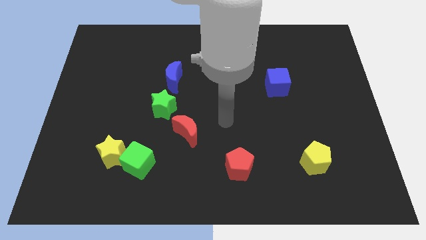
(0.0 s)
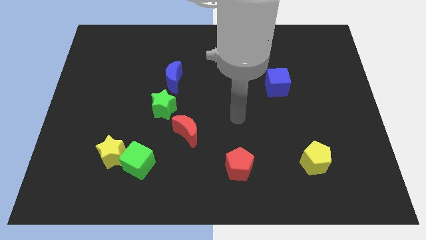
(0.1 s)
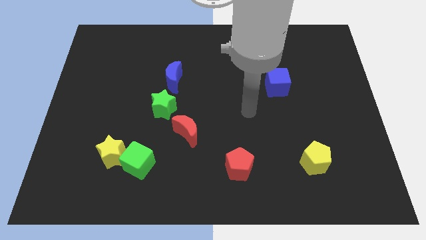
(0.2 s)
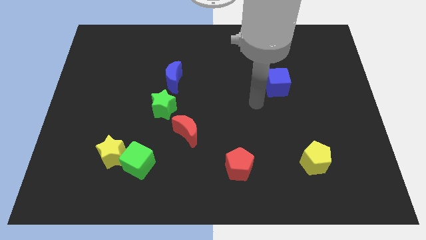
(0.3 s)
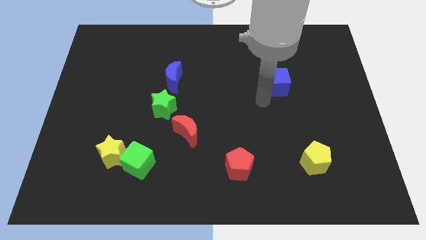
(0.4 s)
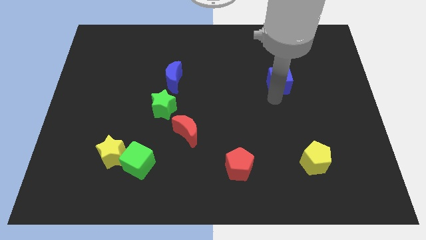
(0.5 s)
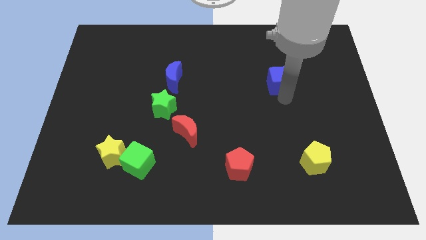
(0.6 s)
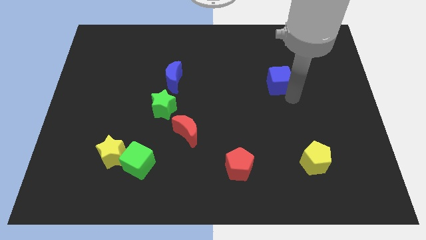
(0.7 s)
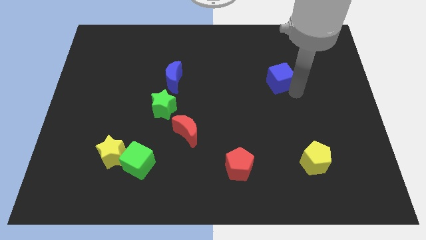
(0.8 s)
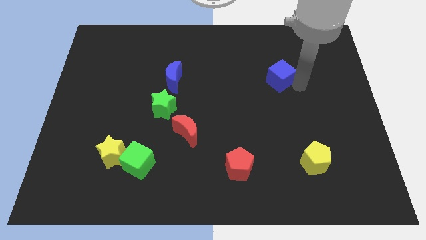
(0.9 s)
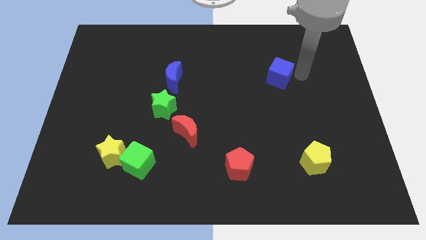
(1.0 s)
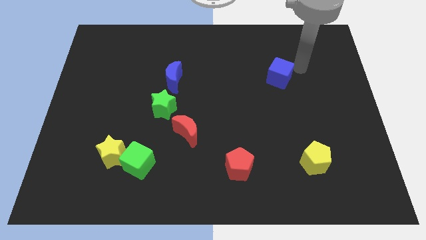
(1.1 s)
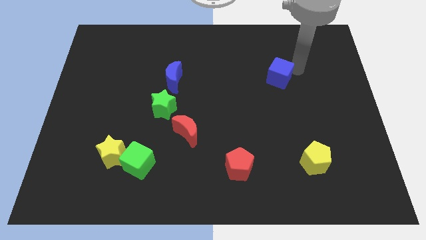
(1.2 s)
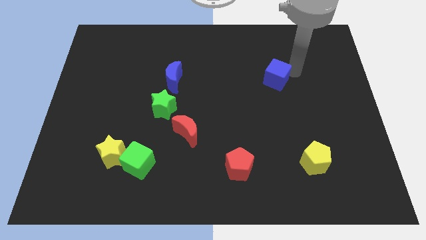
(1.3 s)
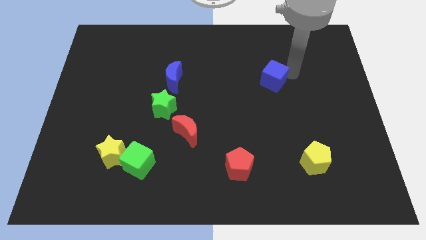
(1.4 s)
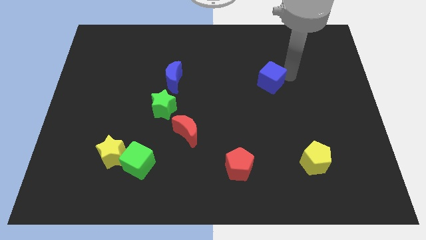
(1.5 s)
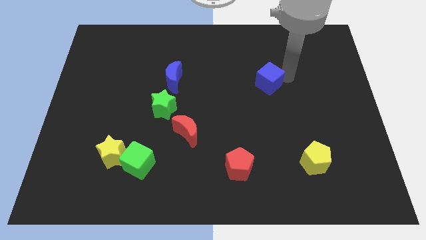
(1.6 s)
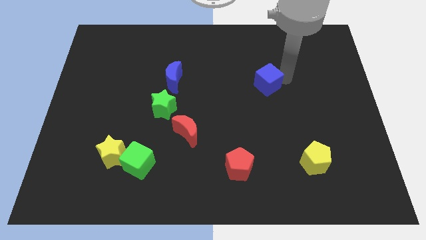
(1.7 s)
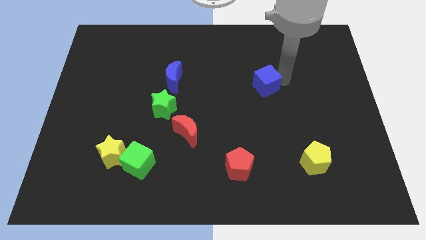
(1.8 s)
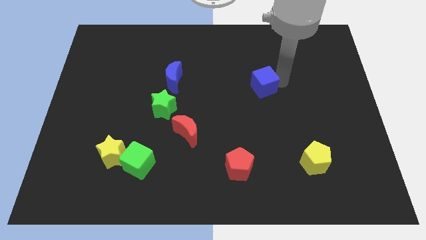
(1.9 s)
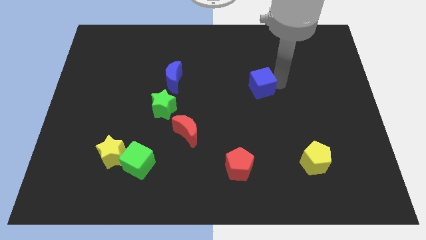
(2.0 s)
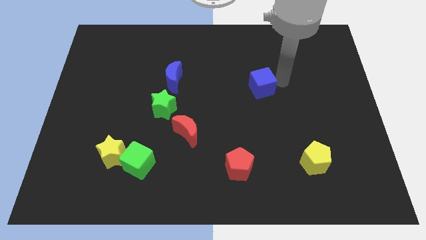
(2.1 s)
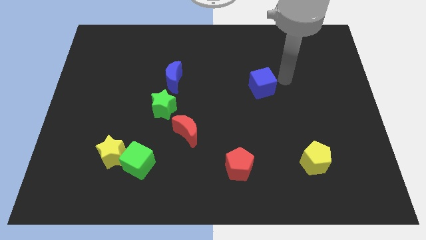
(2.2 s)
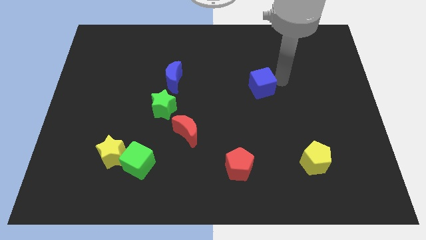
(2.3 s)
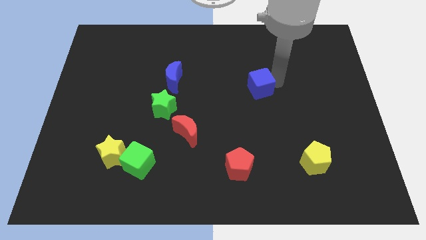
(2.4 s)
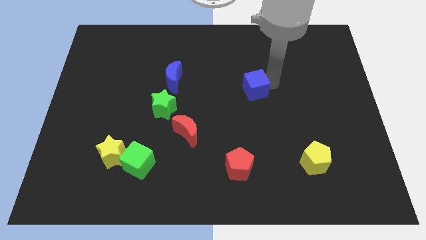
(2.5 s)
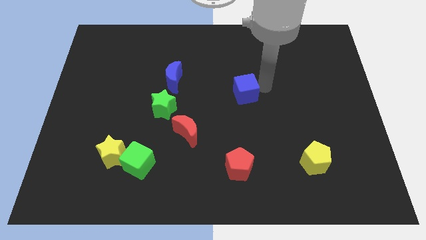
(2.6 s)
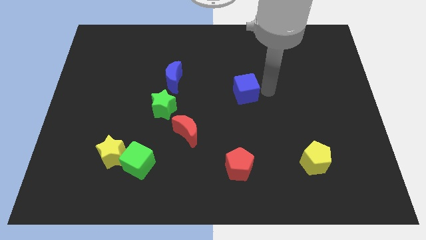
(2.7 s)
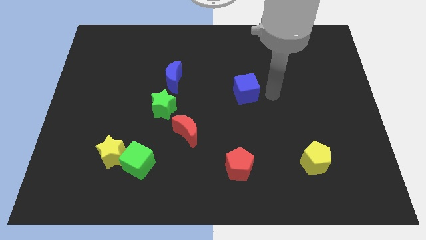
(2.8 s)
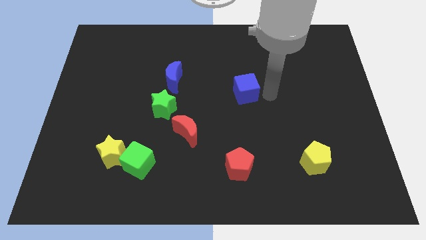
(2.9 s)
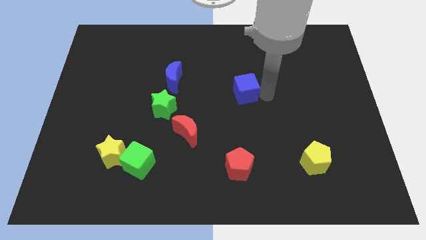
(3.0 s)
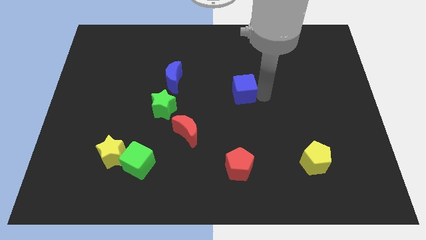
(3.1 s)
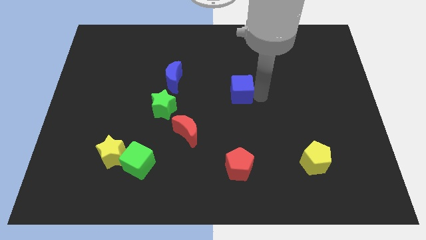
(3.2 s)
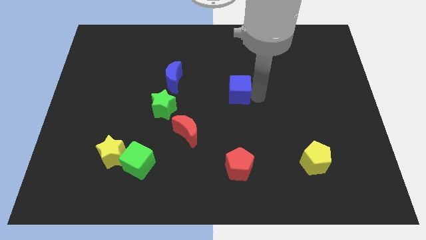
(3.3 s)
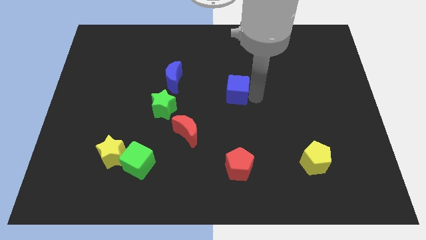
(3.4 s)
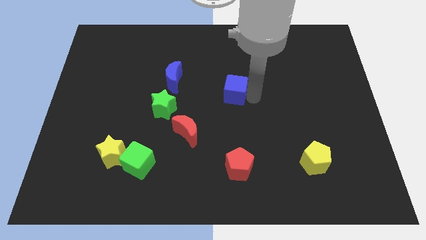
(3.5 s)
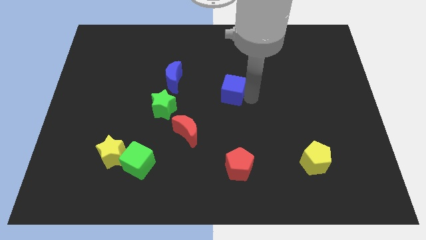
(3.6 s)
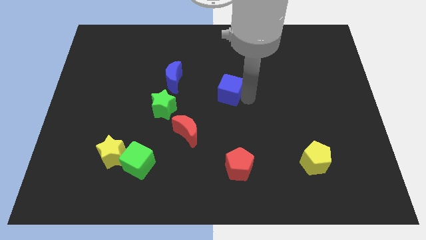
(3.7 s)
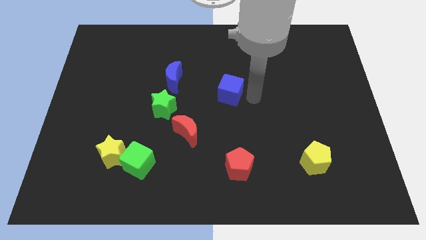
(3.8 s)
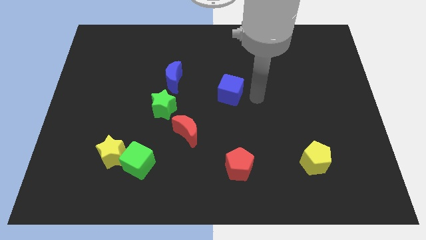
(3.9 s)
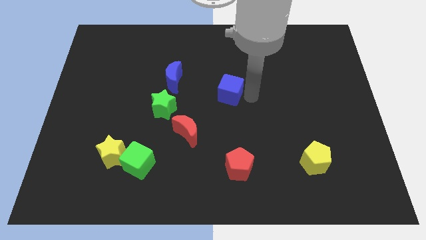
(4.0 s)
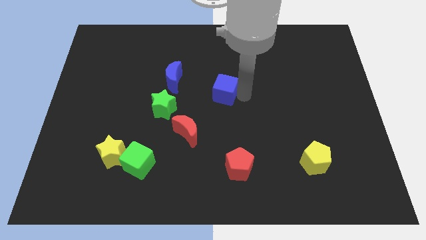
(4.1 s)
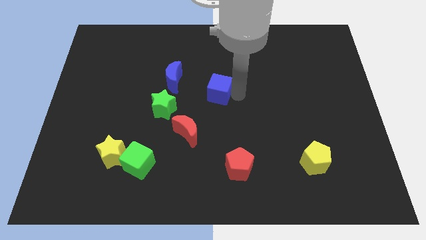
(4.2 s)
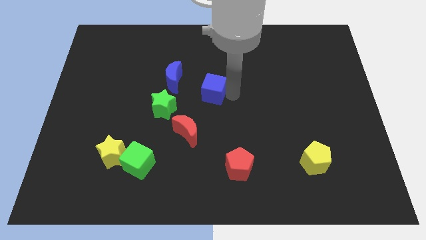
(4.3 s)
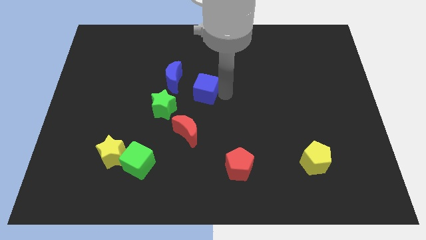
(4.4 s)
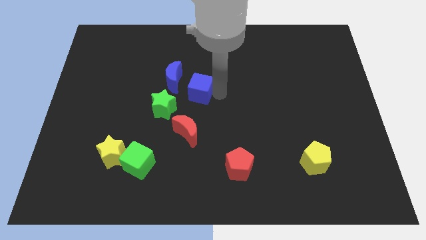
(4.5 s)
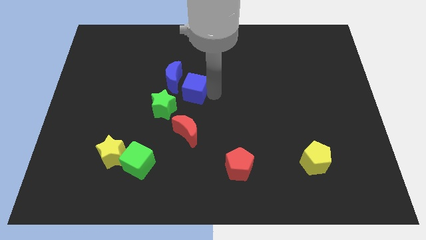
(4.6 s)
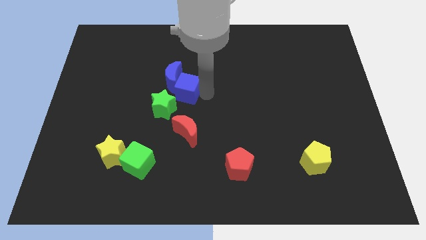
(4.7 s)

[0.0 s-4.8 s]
move the blue cube towards the blue moon

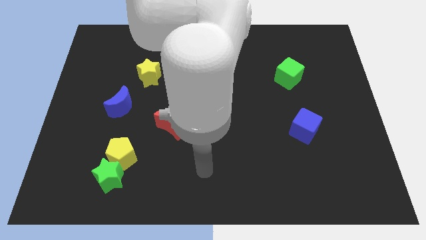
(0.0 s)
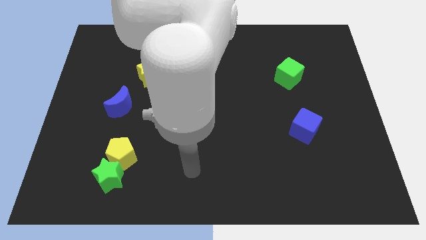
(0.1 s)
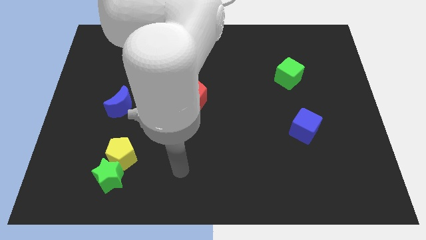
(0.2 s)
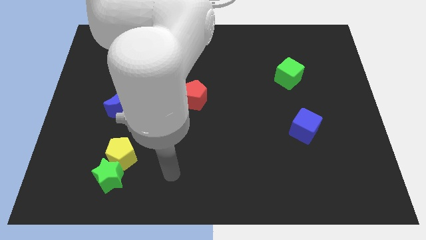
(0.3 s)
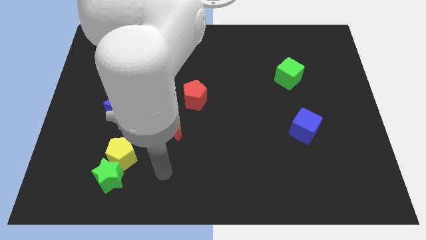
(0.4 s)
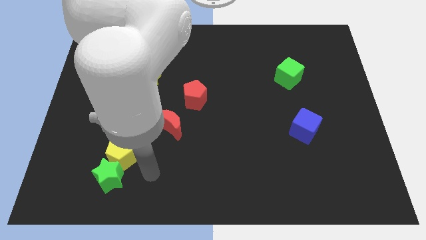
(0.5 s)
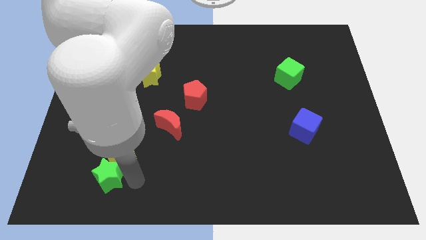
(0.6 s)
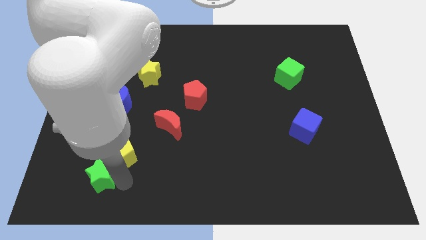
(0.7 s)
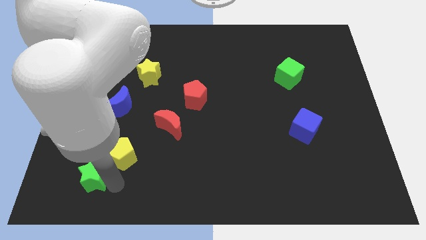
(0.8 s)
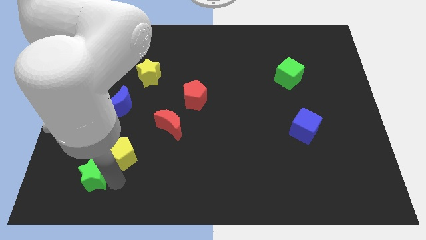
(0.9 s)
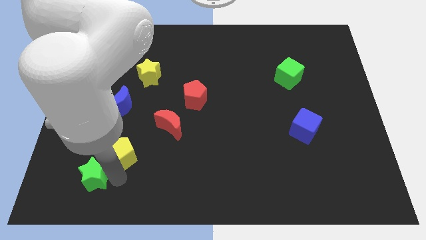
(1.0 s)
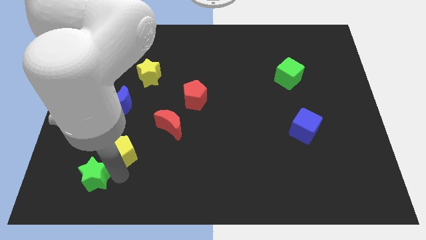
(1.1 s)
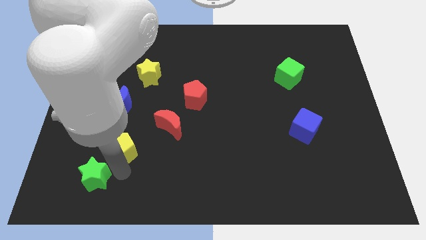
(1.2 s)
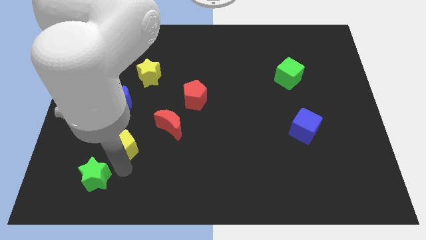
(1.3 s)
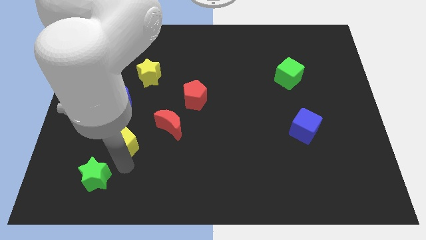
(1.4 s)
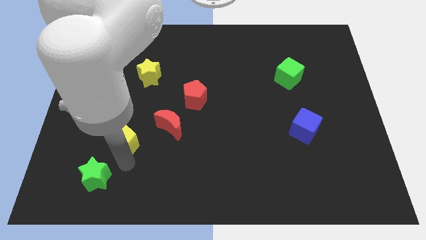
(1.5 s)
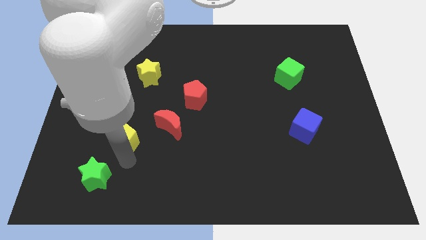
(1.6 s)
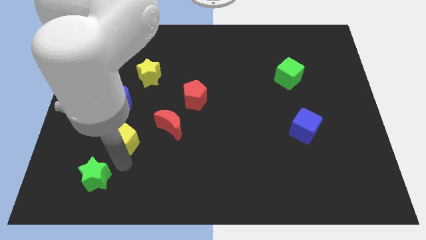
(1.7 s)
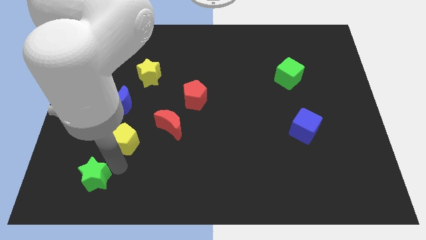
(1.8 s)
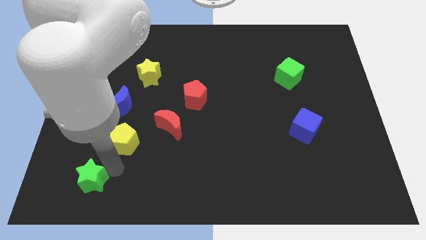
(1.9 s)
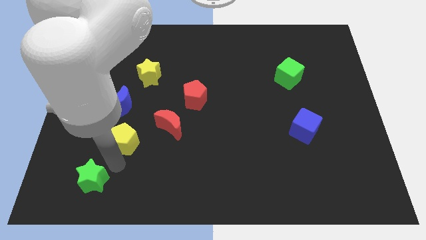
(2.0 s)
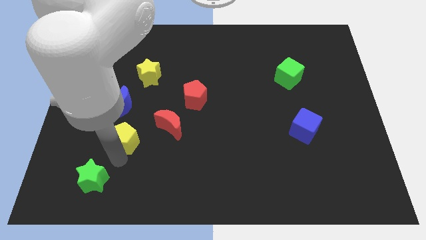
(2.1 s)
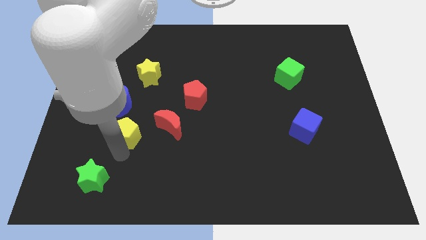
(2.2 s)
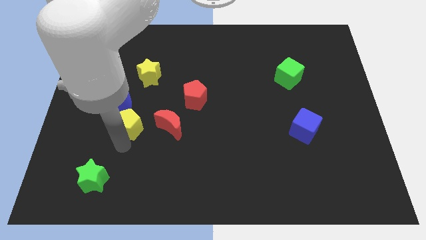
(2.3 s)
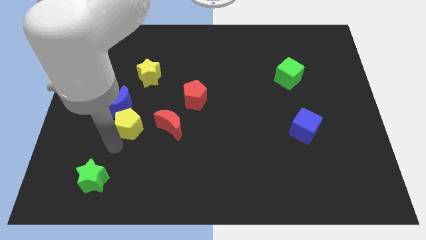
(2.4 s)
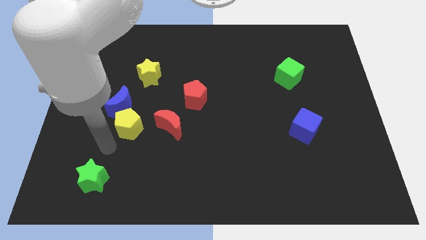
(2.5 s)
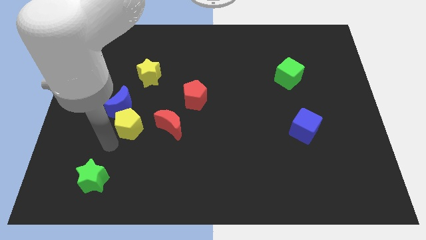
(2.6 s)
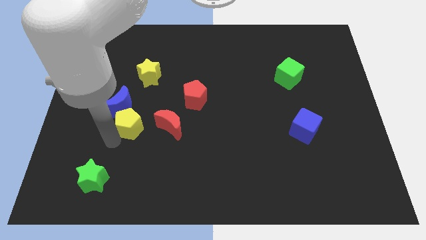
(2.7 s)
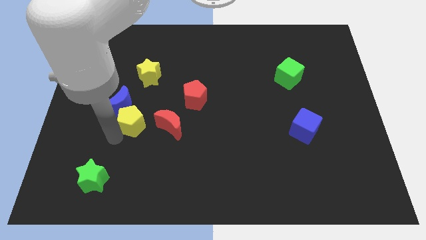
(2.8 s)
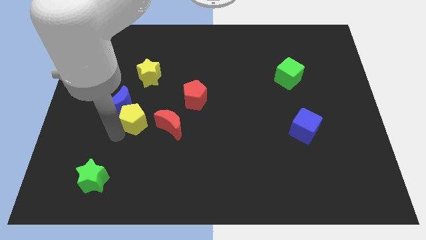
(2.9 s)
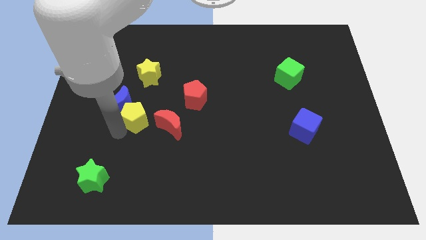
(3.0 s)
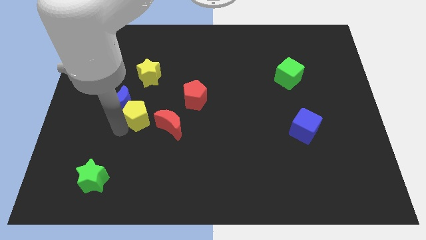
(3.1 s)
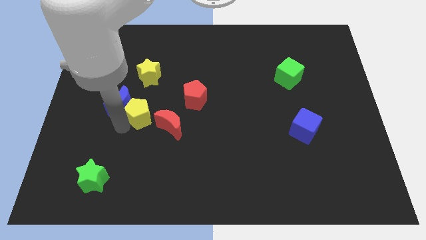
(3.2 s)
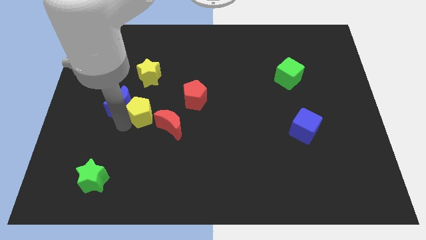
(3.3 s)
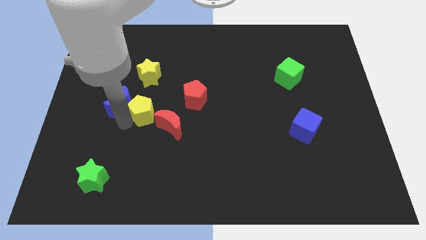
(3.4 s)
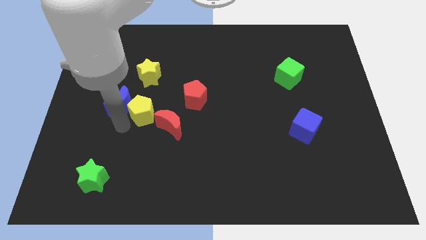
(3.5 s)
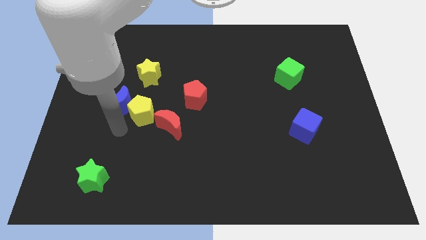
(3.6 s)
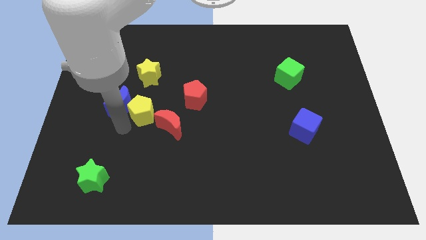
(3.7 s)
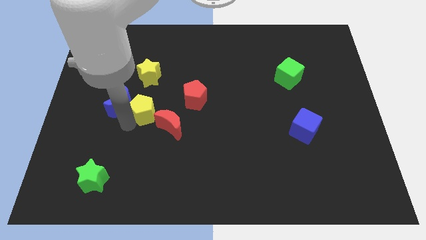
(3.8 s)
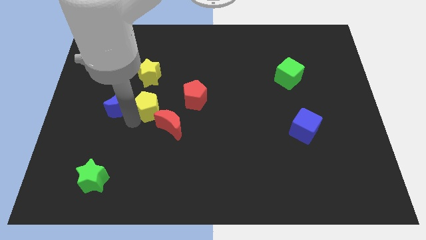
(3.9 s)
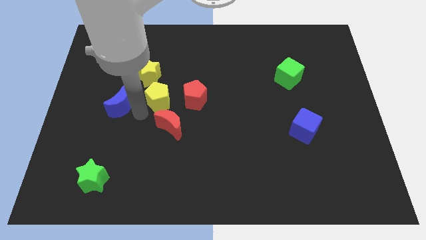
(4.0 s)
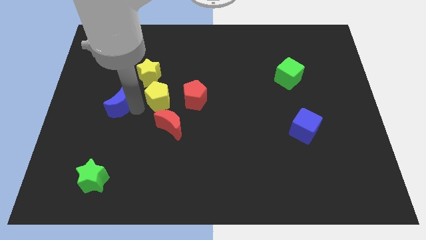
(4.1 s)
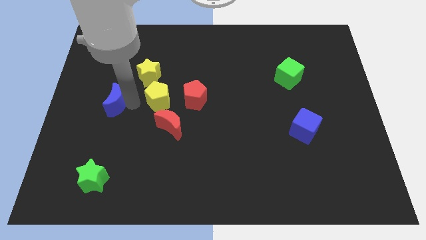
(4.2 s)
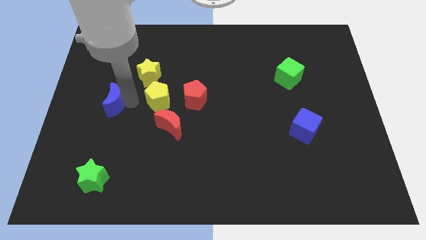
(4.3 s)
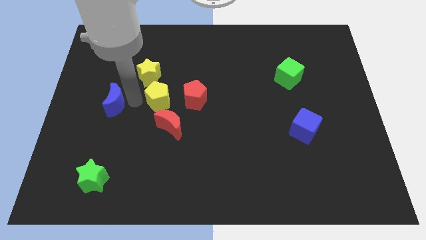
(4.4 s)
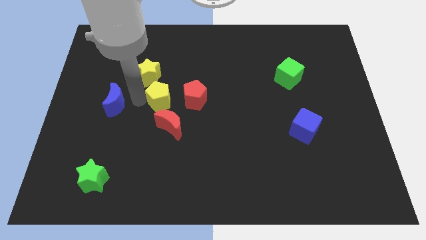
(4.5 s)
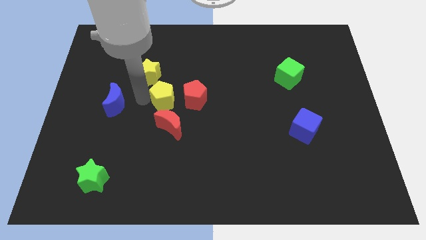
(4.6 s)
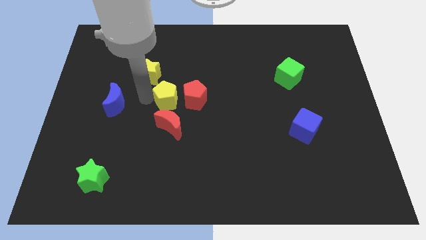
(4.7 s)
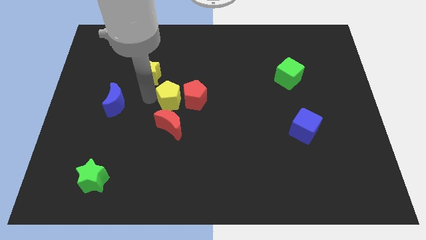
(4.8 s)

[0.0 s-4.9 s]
put the yellow pentagon to the red pentagon
